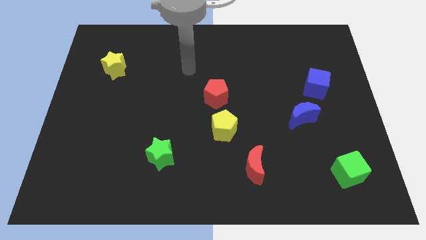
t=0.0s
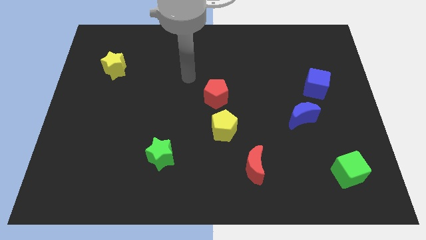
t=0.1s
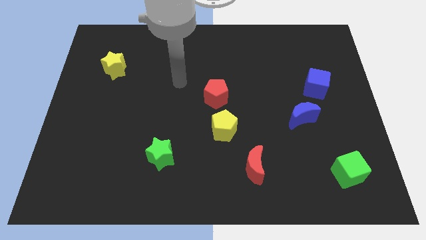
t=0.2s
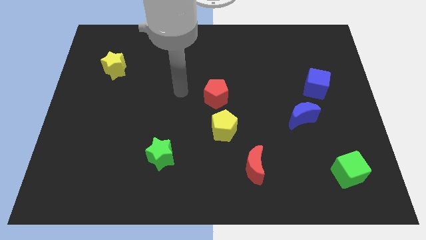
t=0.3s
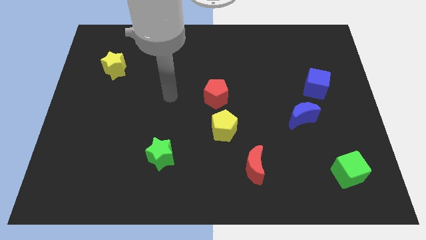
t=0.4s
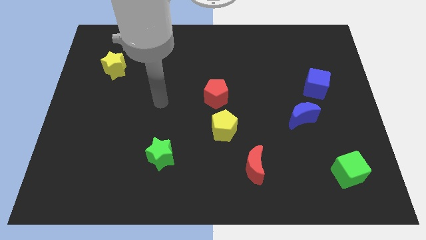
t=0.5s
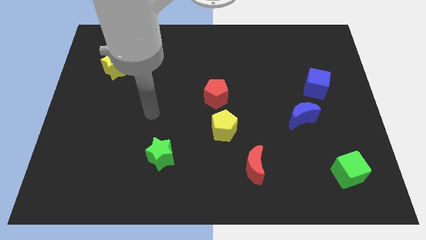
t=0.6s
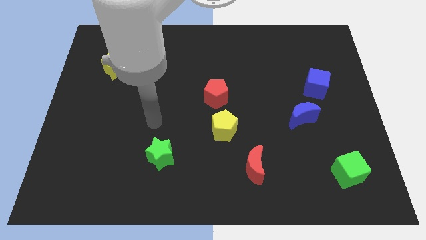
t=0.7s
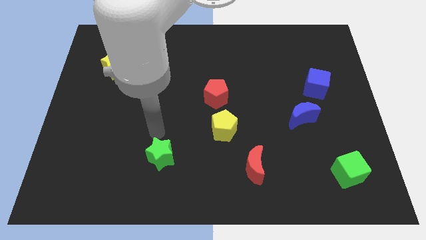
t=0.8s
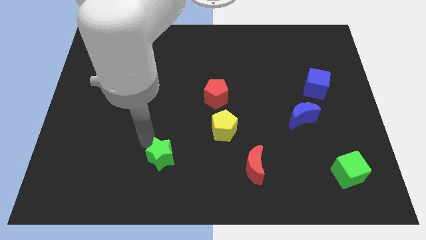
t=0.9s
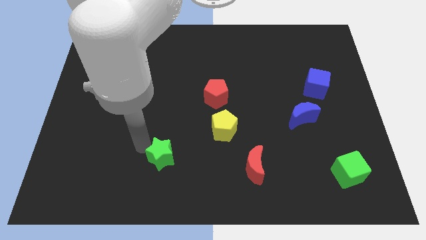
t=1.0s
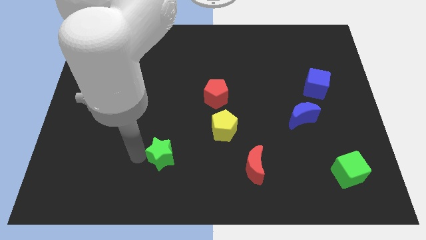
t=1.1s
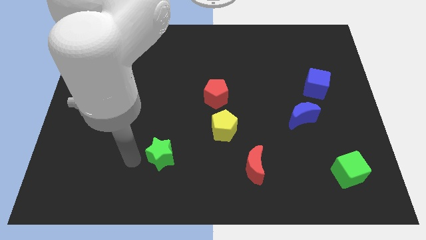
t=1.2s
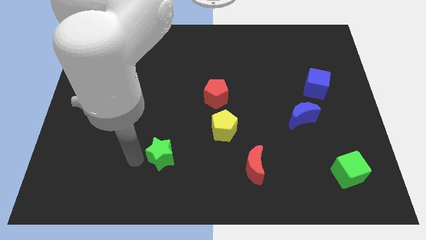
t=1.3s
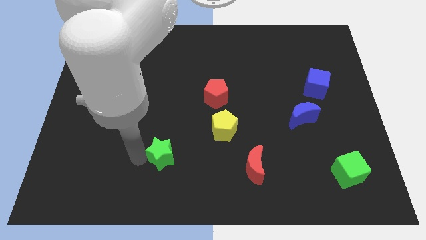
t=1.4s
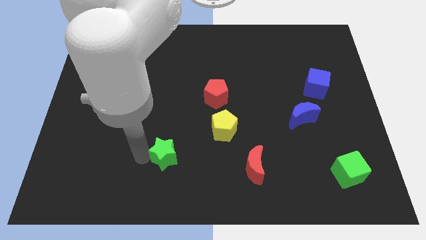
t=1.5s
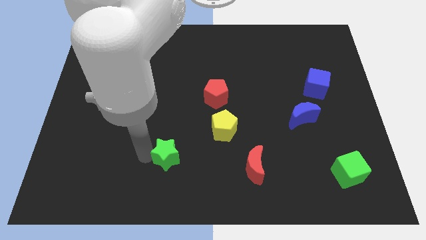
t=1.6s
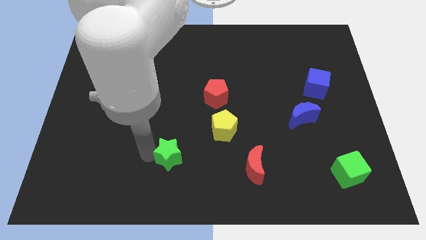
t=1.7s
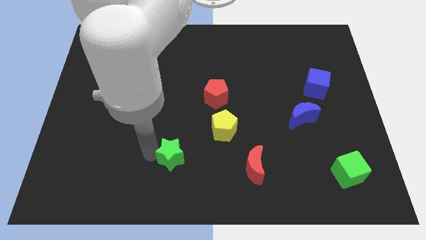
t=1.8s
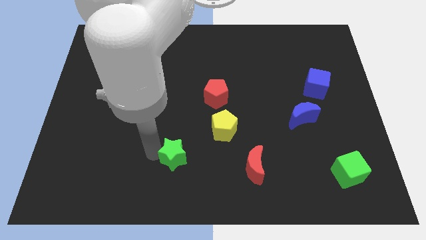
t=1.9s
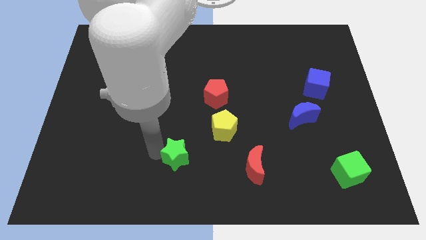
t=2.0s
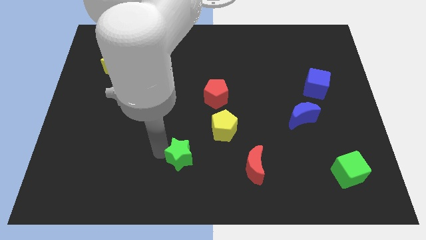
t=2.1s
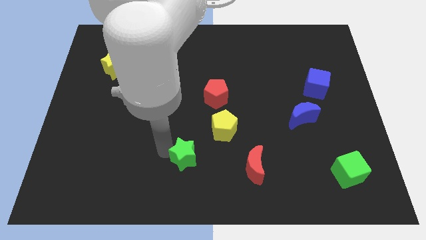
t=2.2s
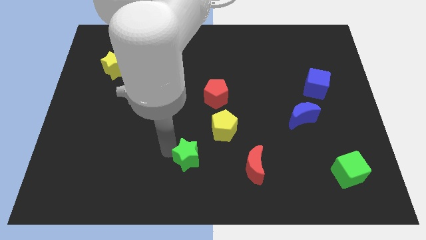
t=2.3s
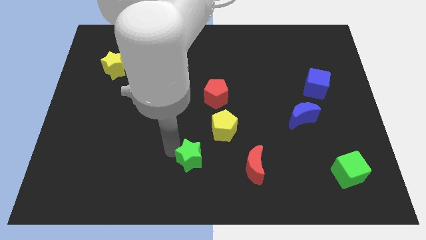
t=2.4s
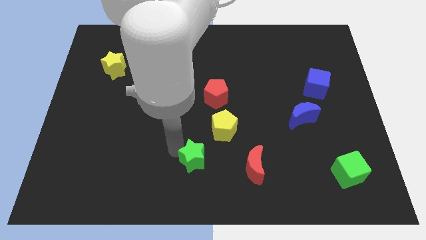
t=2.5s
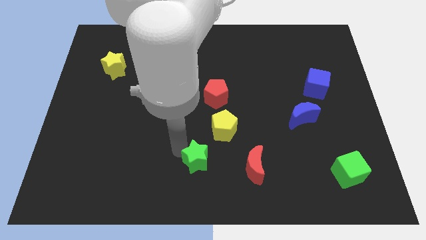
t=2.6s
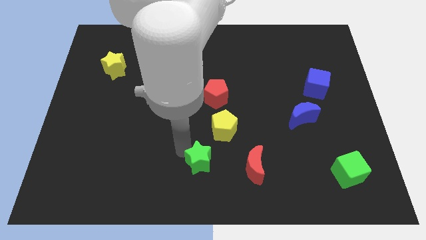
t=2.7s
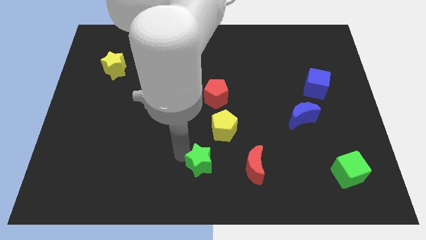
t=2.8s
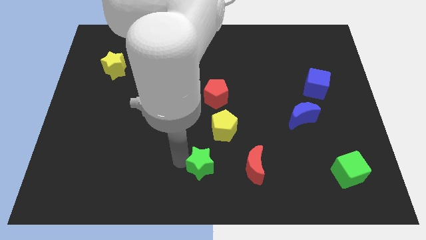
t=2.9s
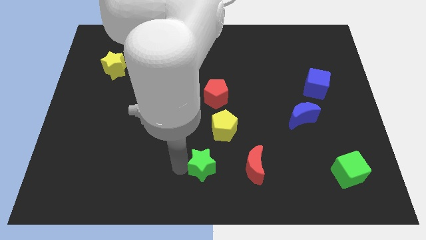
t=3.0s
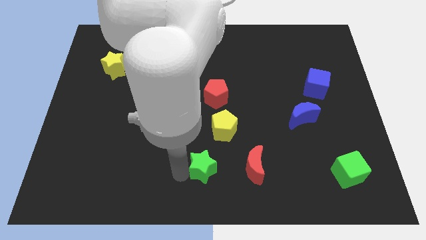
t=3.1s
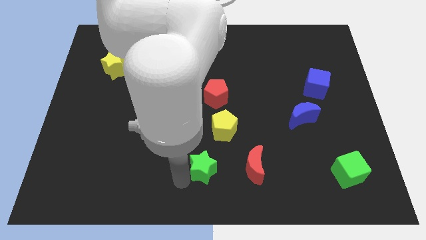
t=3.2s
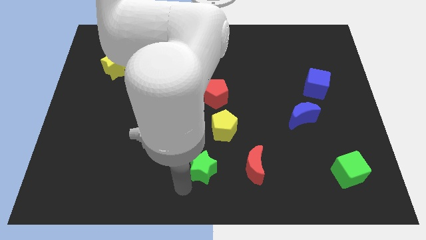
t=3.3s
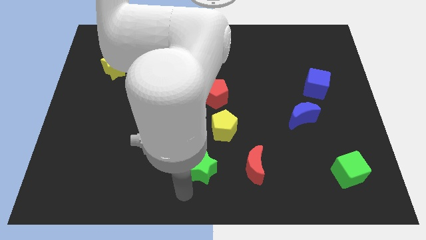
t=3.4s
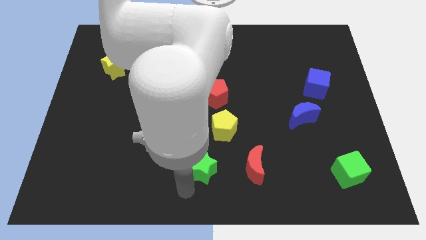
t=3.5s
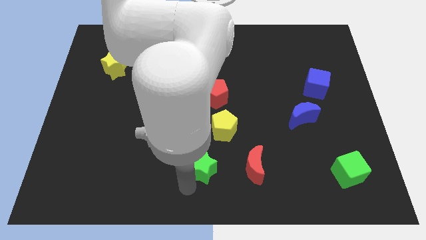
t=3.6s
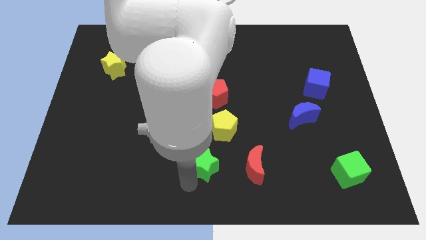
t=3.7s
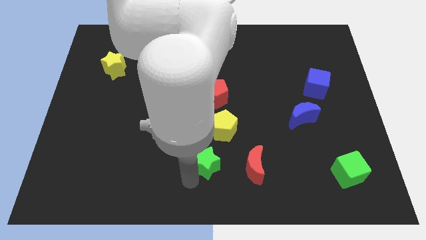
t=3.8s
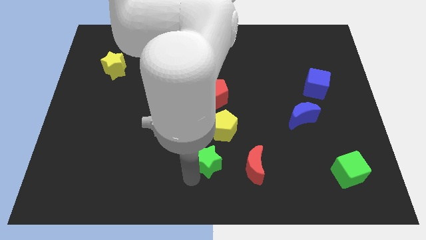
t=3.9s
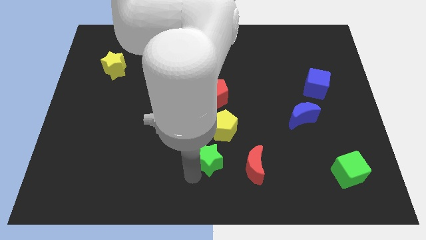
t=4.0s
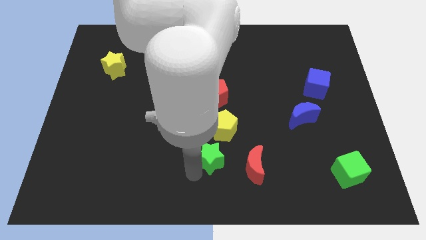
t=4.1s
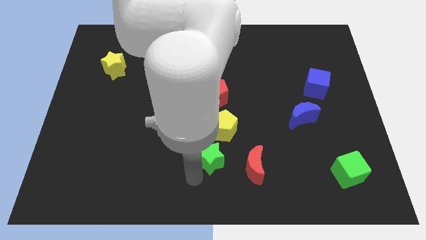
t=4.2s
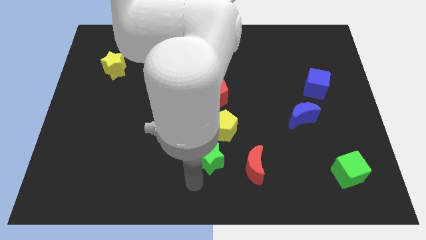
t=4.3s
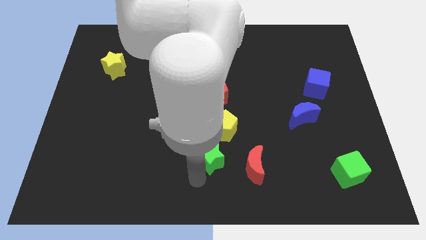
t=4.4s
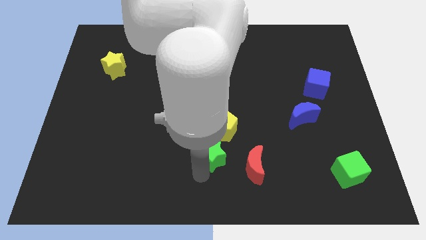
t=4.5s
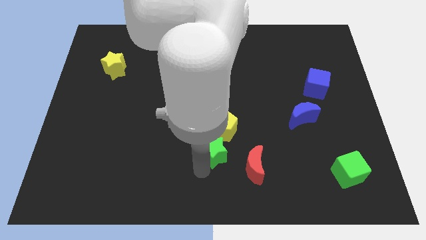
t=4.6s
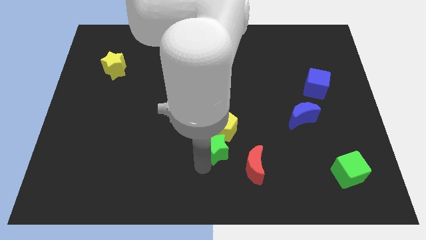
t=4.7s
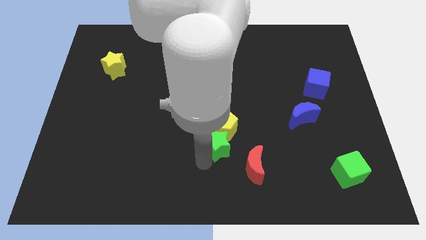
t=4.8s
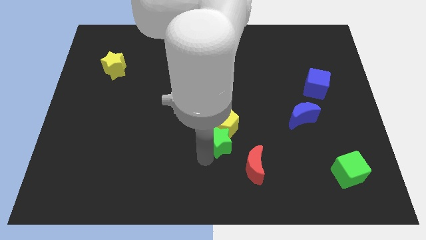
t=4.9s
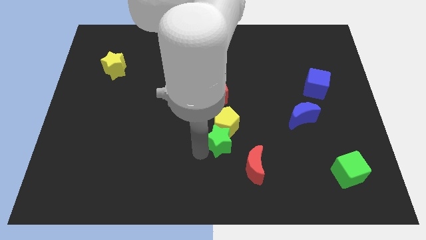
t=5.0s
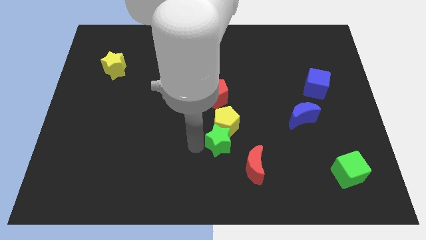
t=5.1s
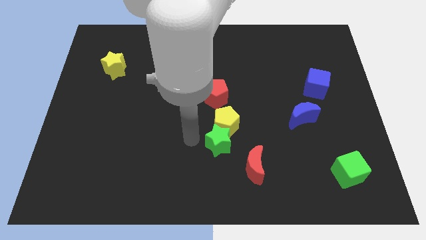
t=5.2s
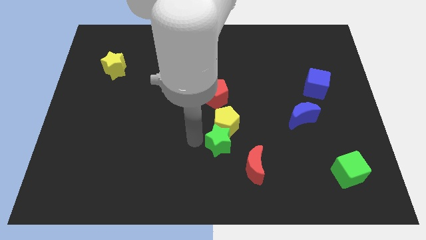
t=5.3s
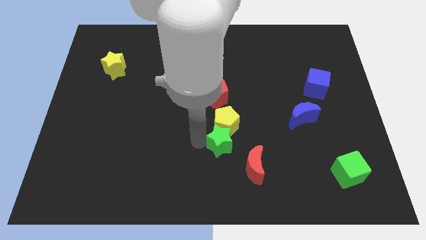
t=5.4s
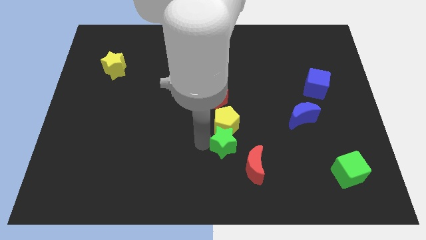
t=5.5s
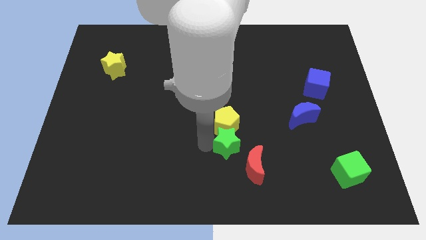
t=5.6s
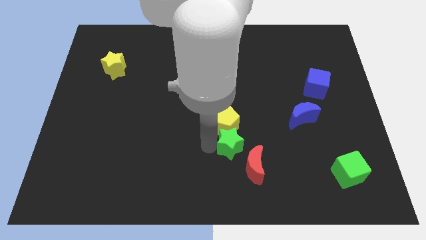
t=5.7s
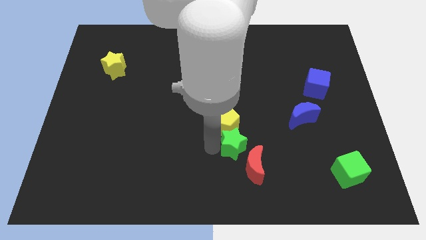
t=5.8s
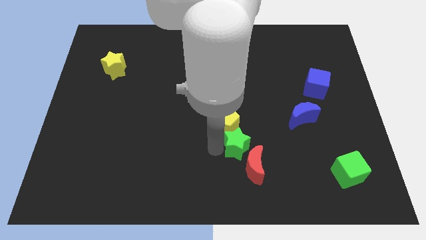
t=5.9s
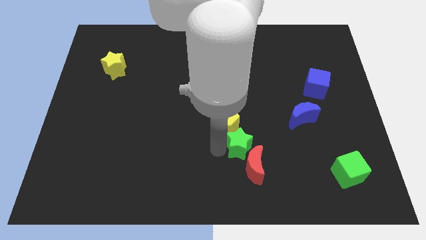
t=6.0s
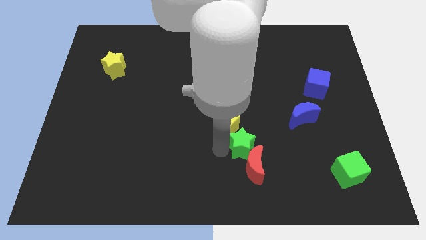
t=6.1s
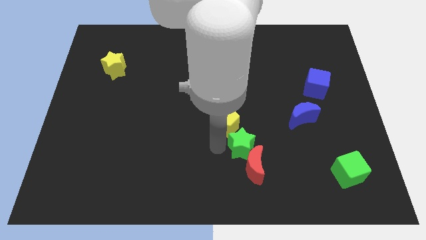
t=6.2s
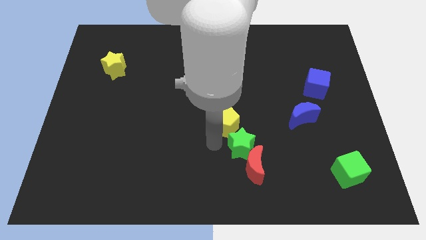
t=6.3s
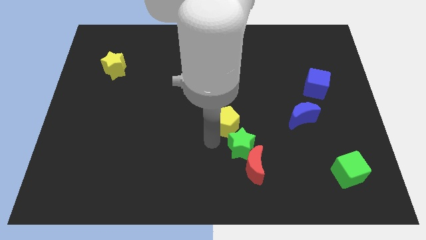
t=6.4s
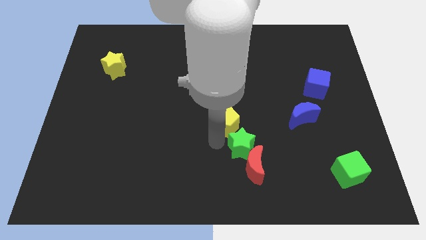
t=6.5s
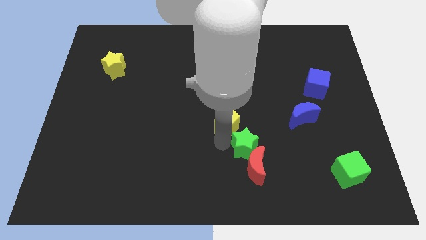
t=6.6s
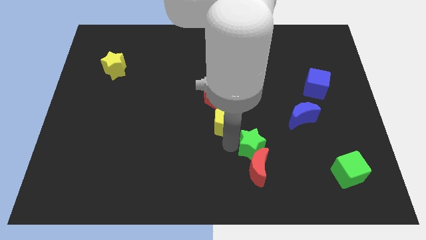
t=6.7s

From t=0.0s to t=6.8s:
move the green star to the top right side of the red moon

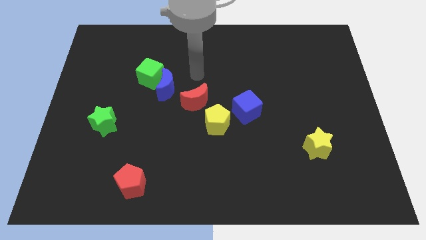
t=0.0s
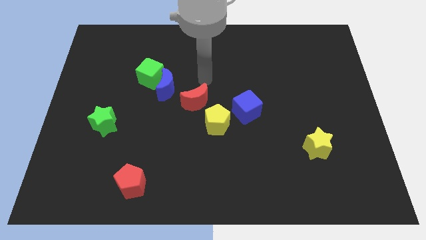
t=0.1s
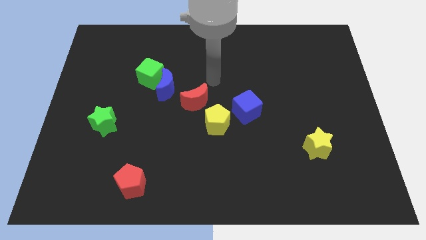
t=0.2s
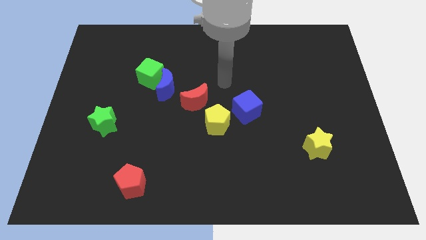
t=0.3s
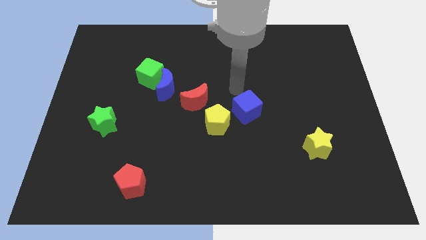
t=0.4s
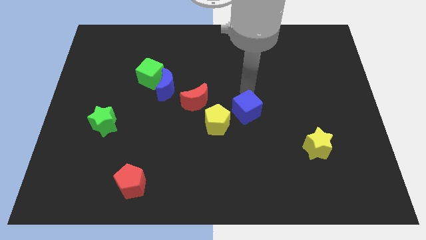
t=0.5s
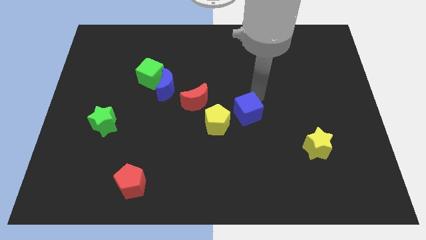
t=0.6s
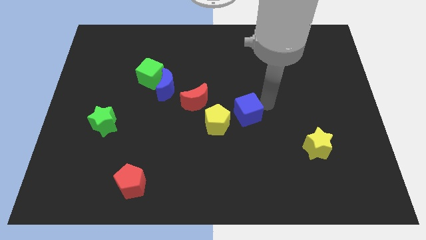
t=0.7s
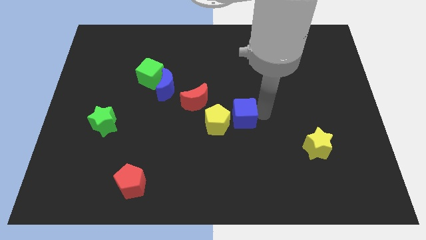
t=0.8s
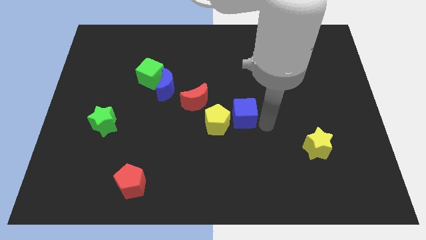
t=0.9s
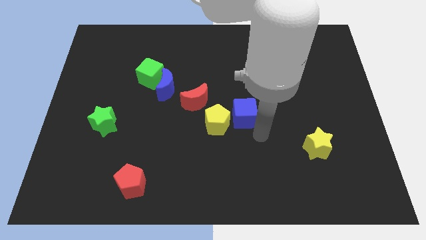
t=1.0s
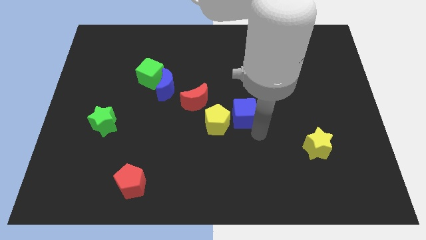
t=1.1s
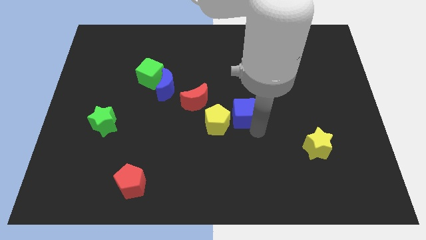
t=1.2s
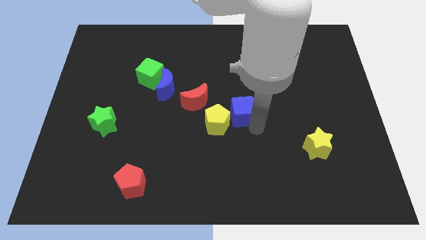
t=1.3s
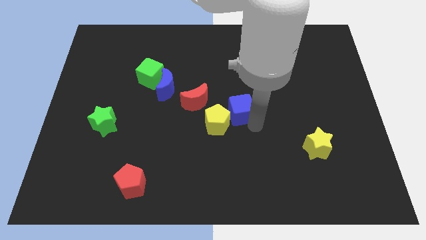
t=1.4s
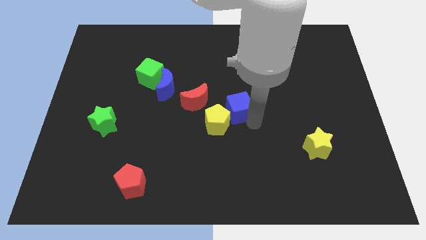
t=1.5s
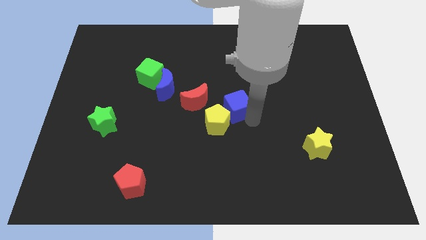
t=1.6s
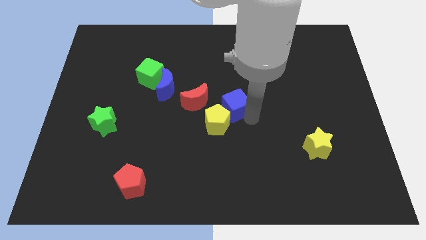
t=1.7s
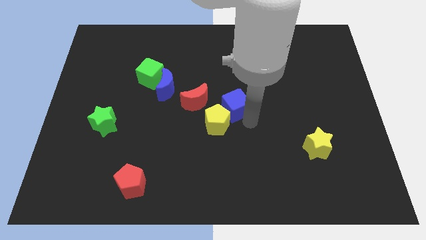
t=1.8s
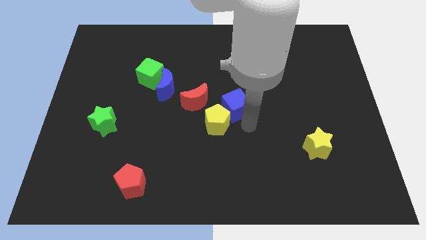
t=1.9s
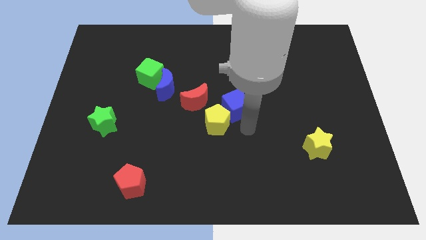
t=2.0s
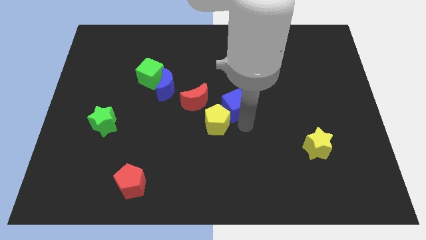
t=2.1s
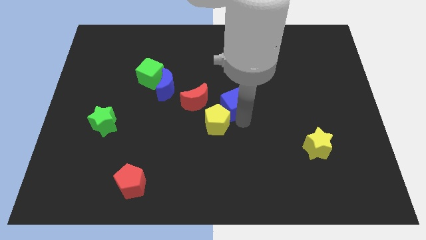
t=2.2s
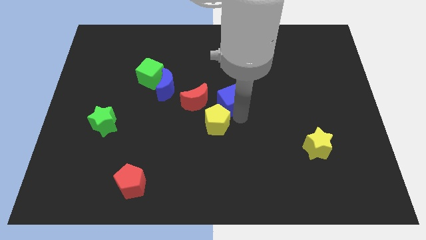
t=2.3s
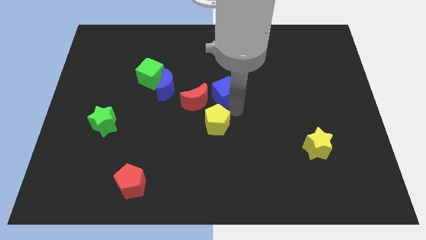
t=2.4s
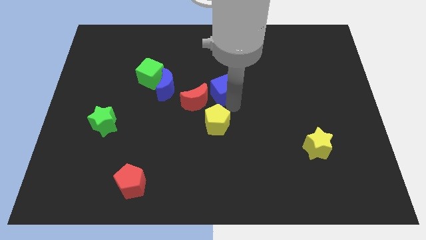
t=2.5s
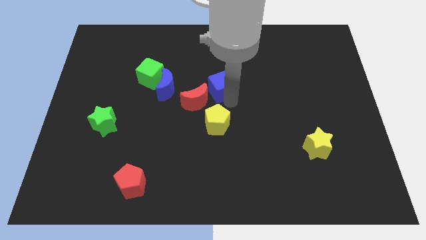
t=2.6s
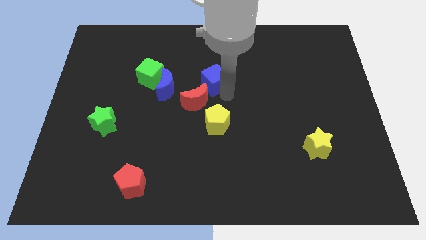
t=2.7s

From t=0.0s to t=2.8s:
put the blue cube to the top of the red moon
